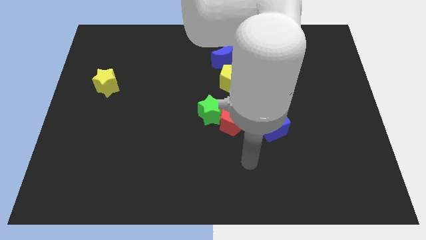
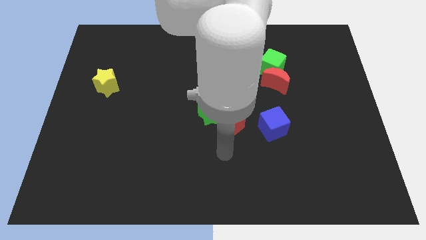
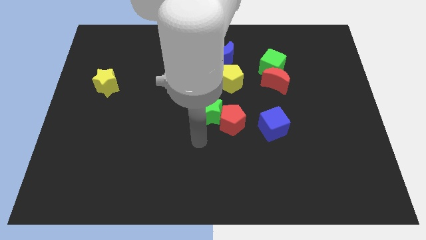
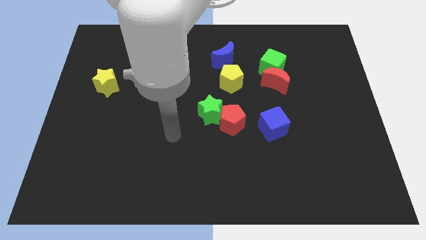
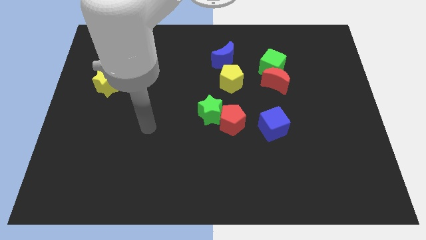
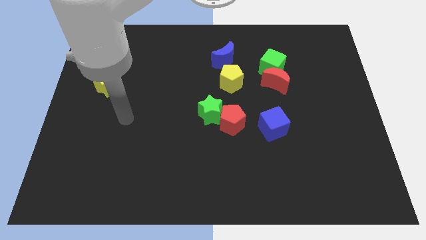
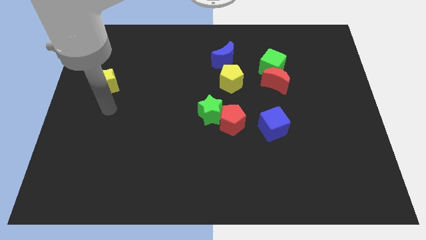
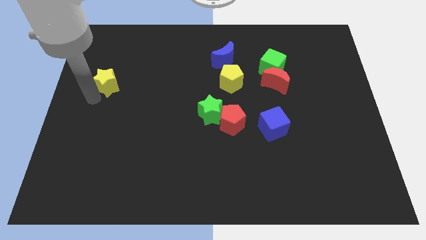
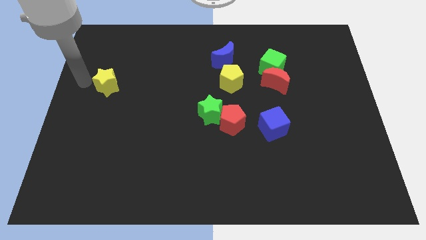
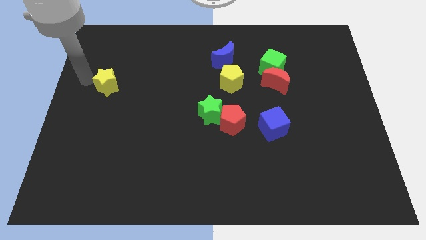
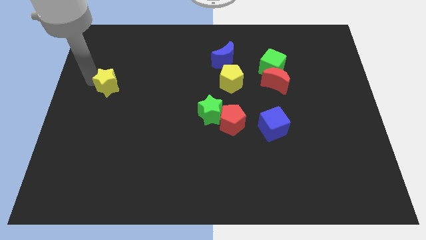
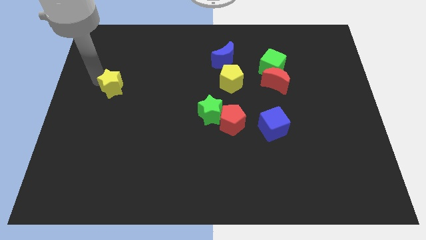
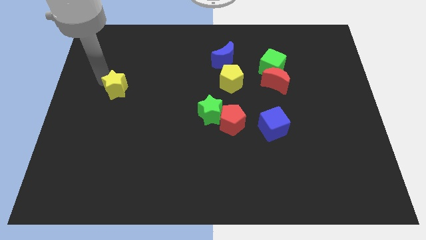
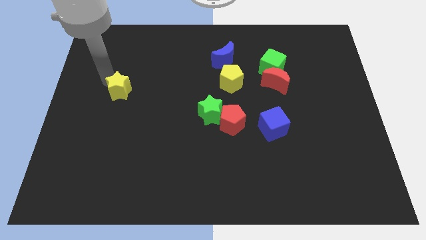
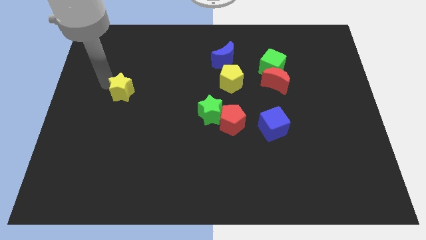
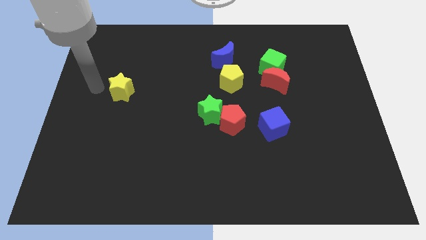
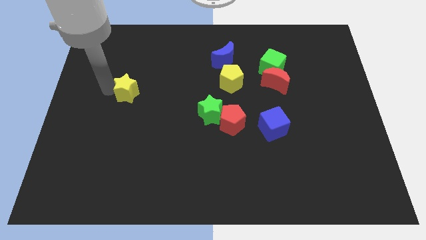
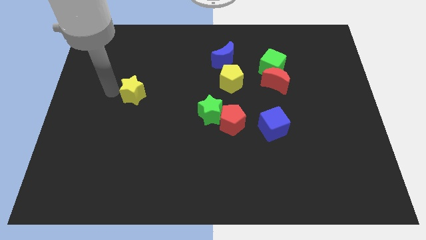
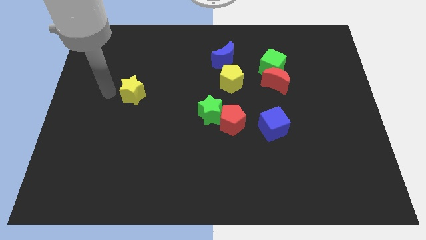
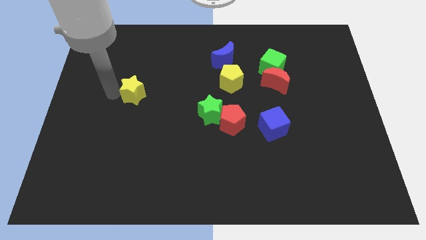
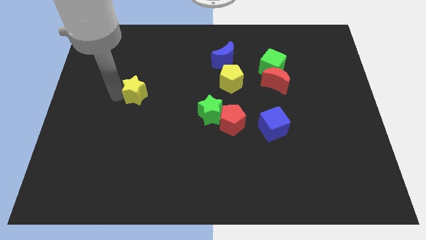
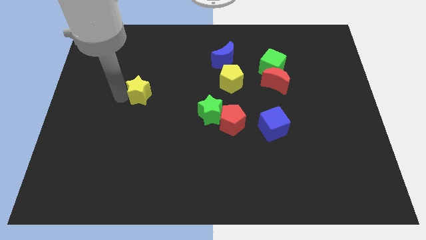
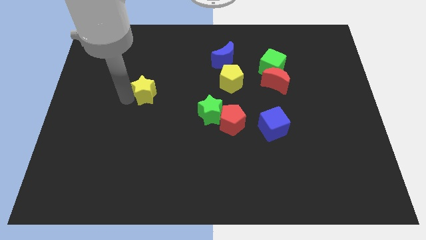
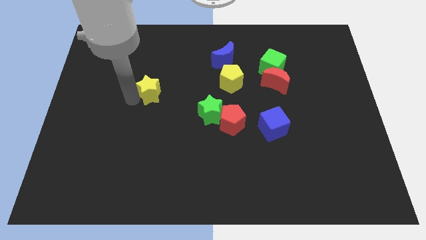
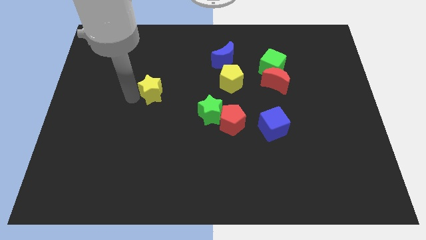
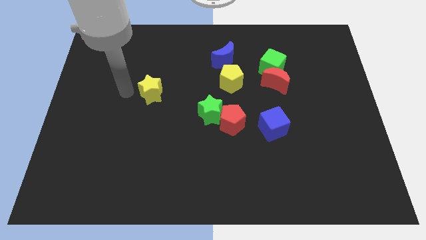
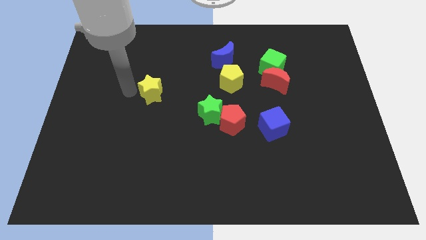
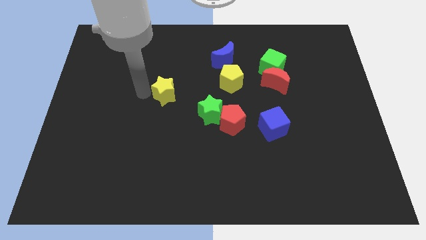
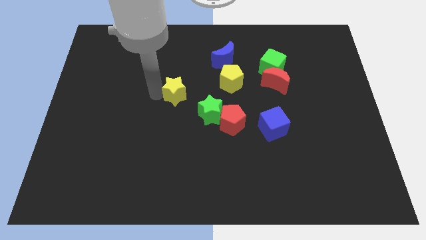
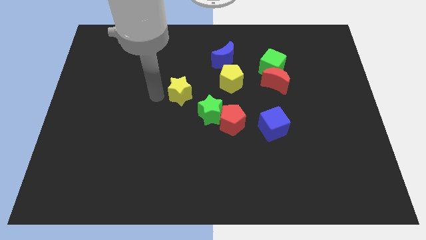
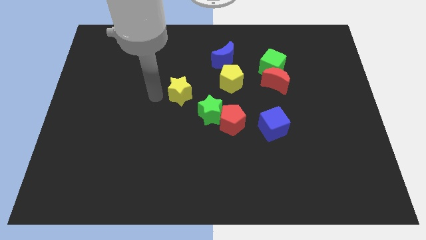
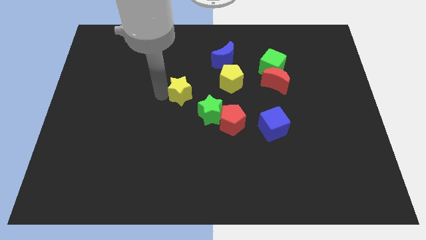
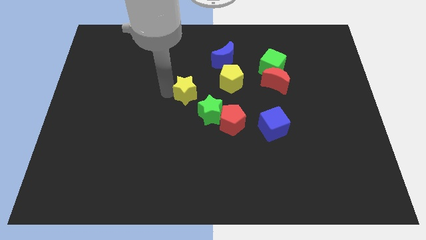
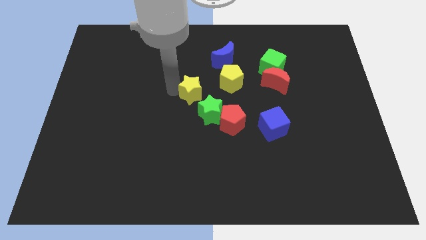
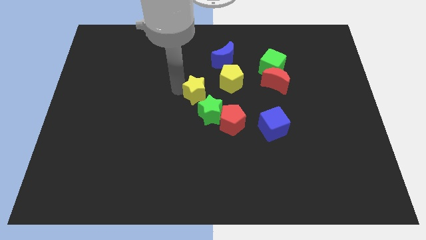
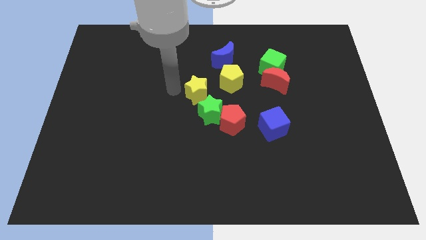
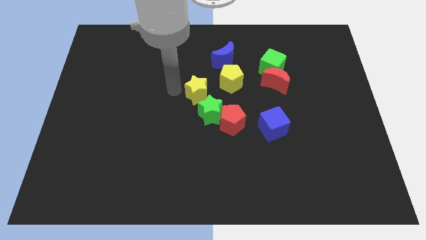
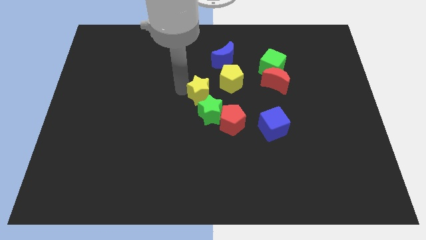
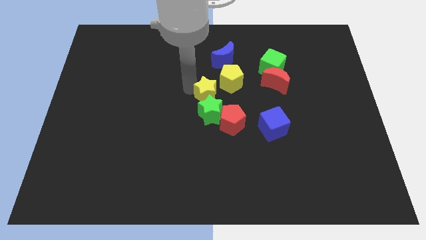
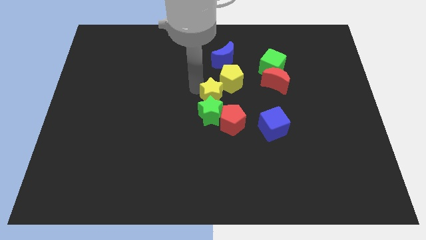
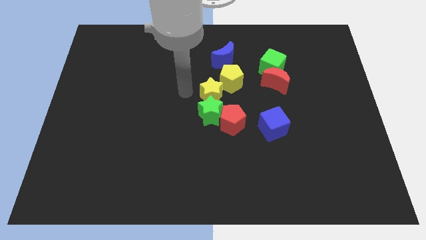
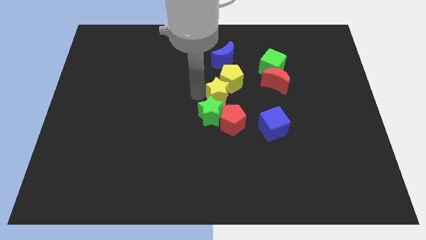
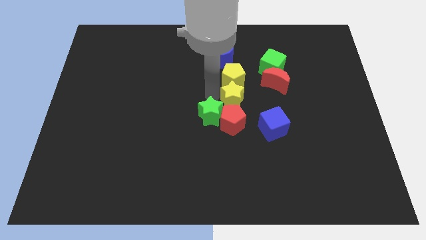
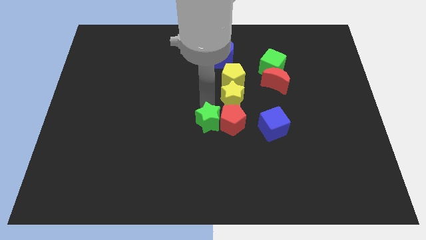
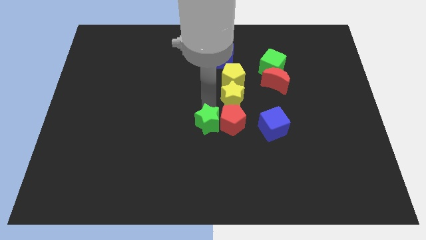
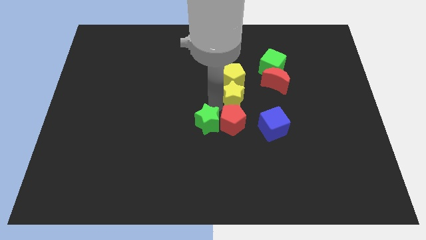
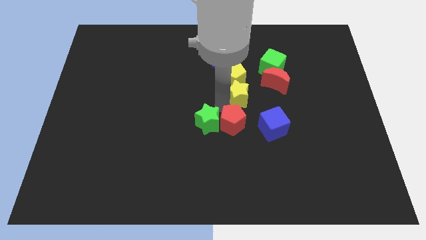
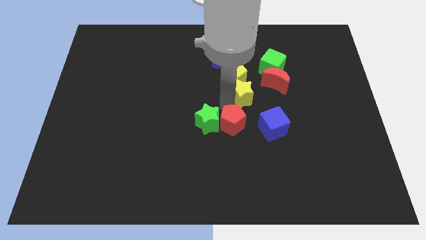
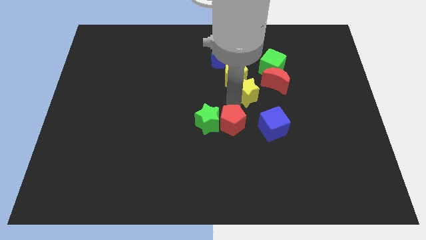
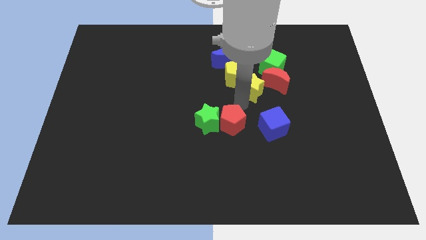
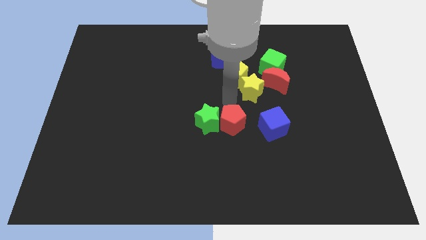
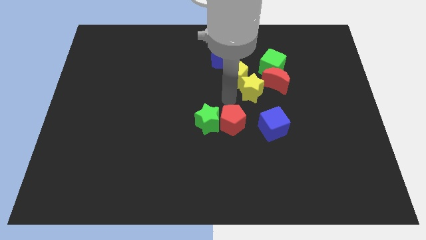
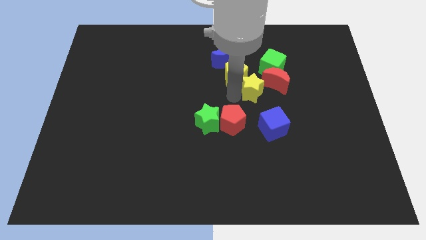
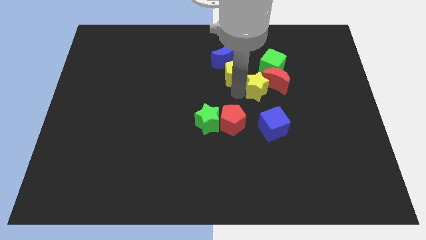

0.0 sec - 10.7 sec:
put the yellow star next to the red moon

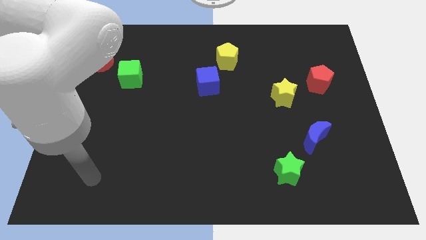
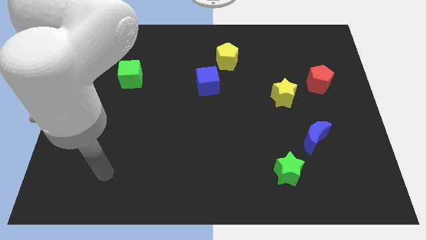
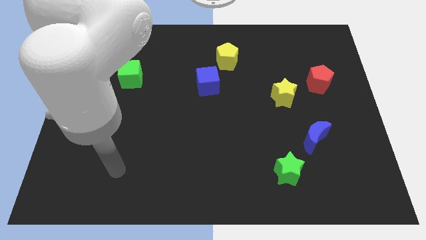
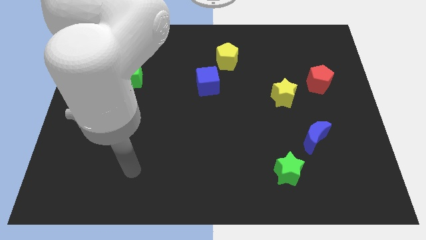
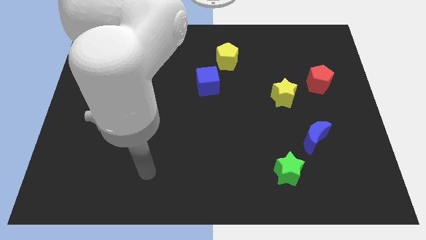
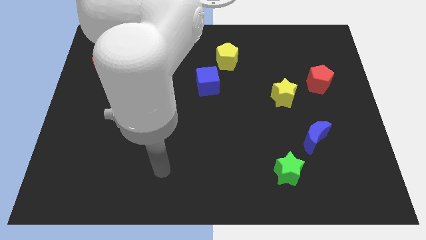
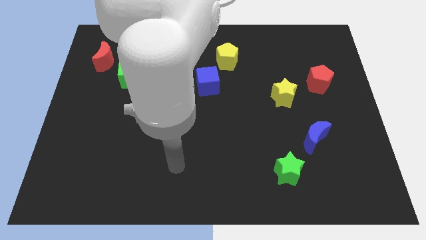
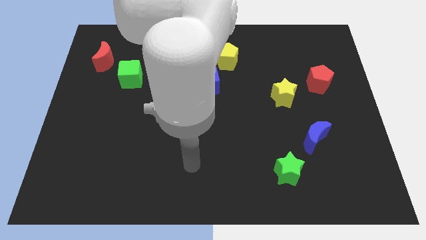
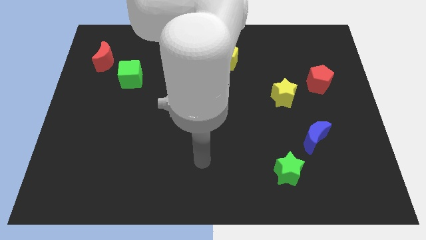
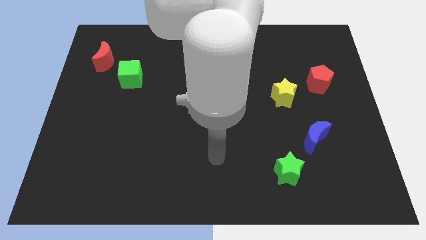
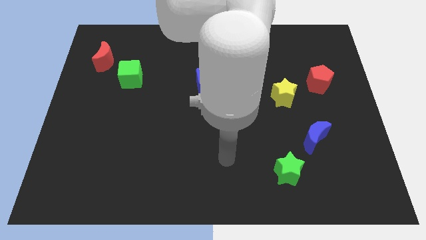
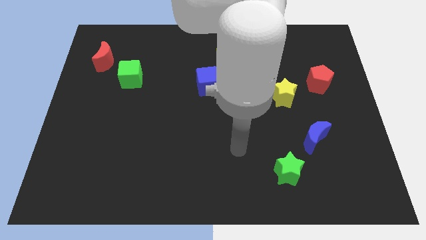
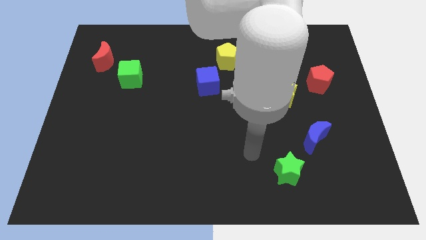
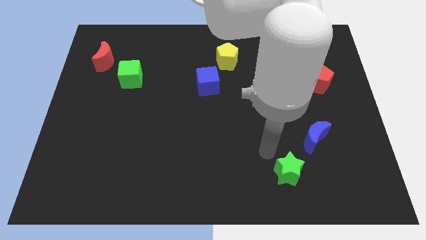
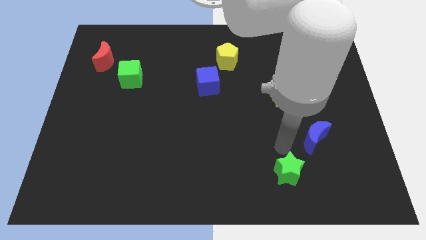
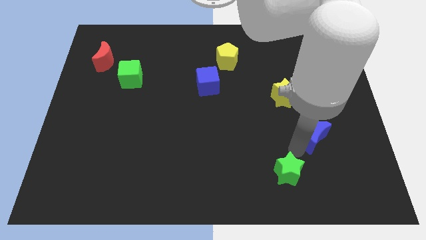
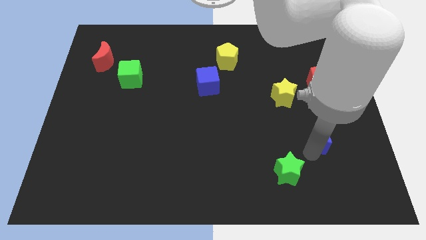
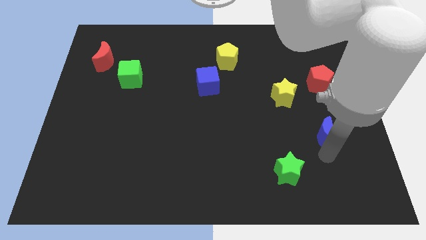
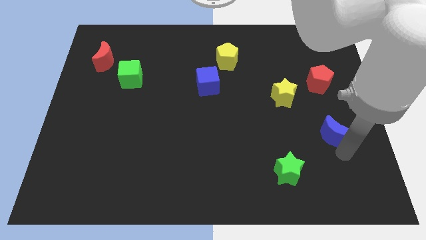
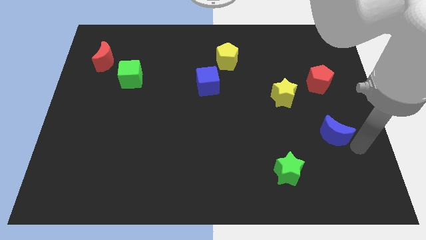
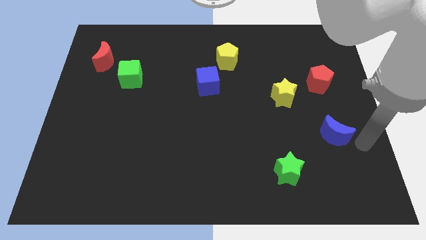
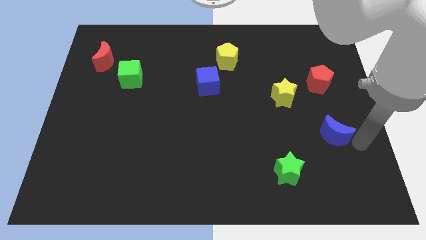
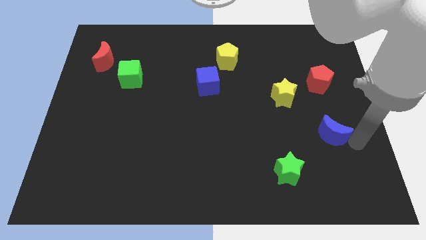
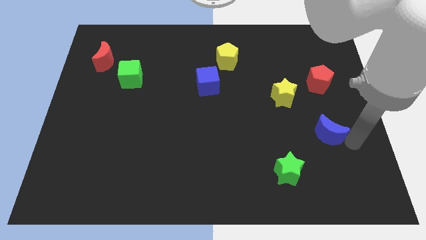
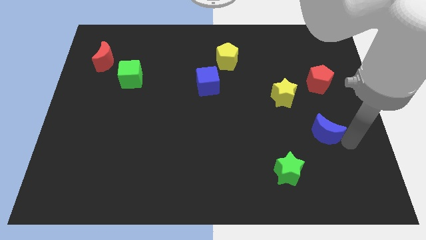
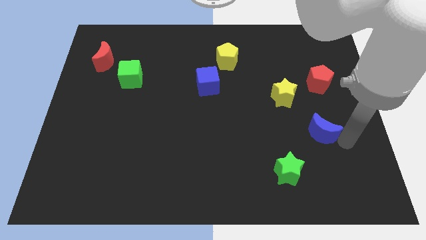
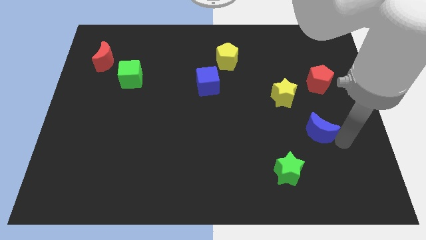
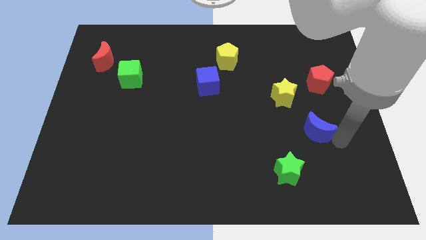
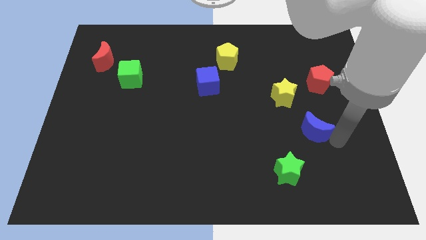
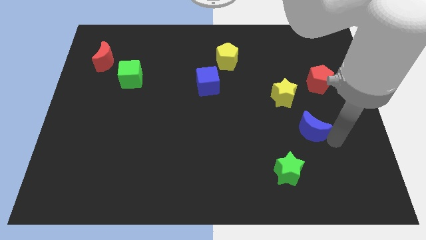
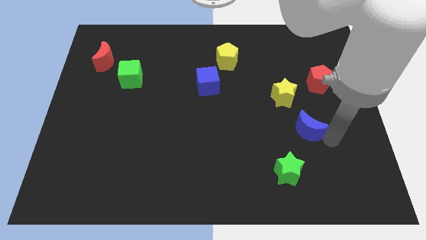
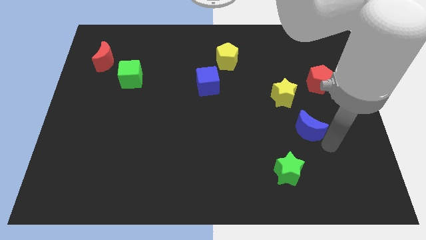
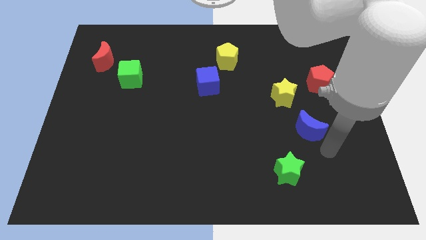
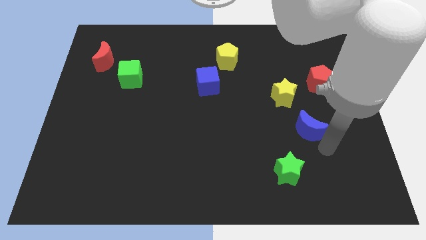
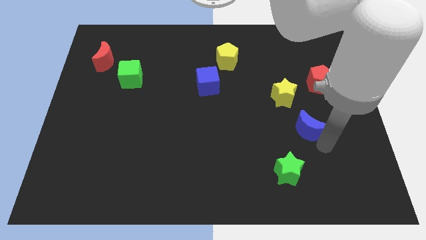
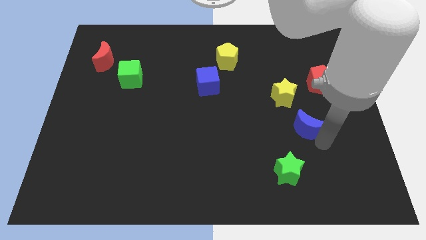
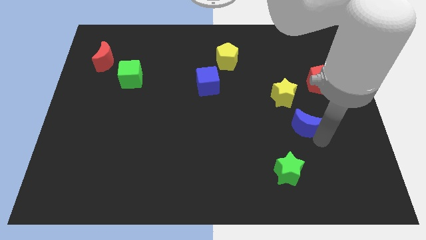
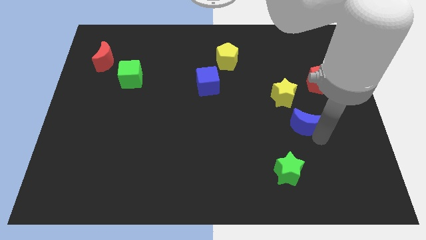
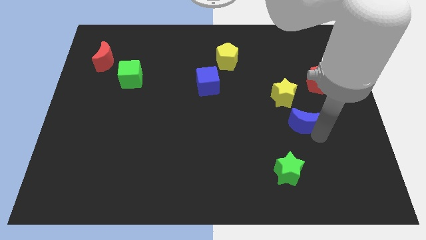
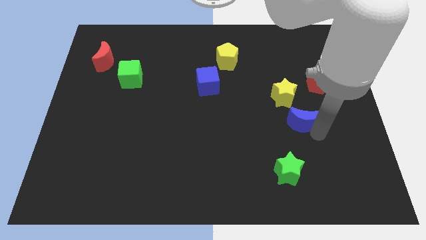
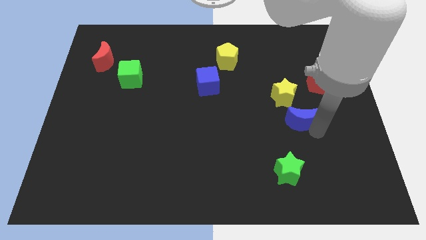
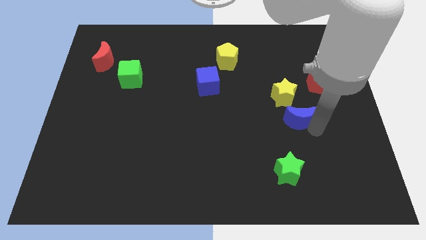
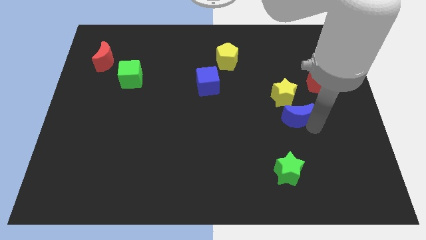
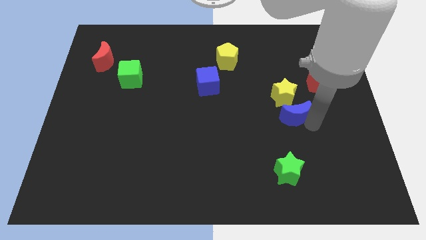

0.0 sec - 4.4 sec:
slide the blue moon to the yellow star
